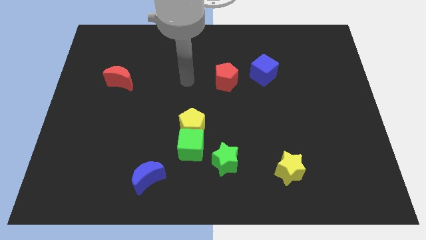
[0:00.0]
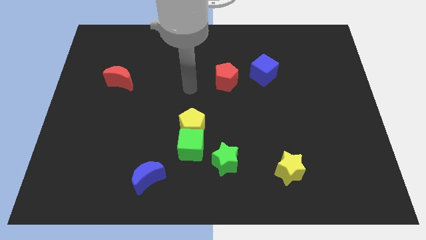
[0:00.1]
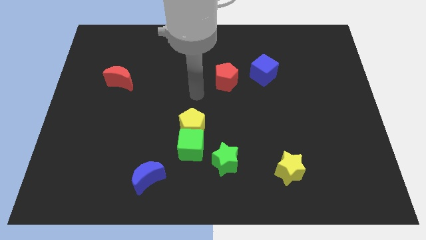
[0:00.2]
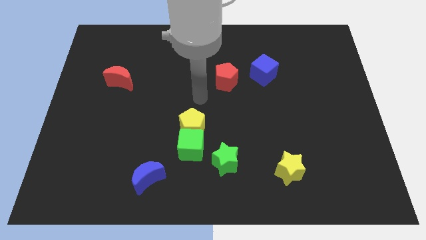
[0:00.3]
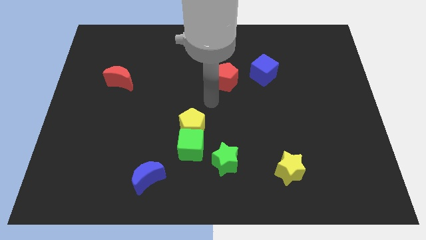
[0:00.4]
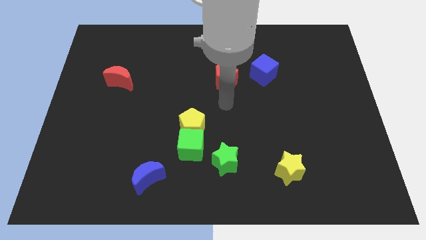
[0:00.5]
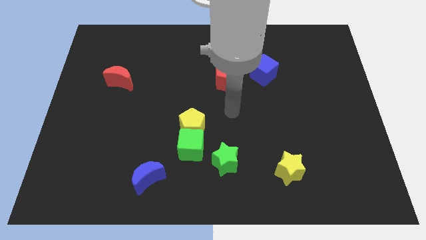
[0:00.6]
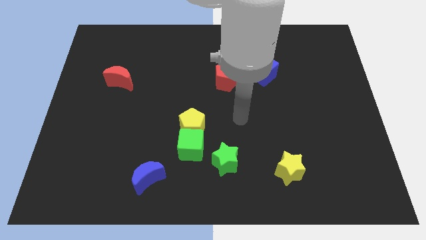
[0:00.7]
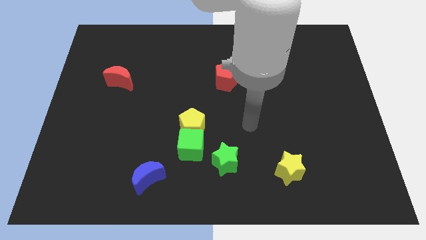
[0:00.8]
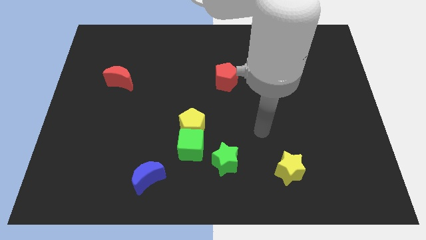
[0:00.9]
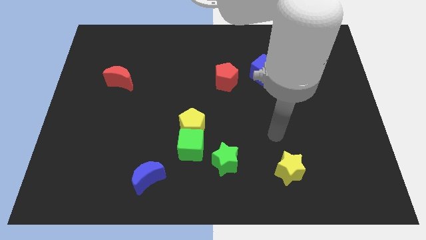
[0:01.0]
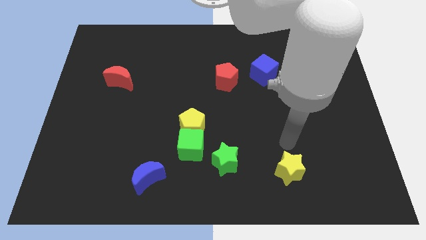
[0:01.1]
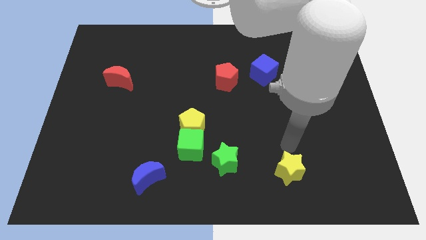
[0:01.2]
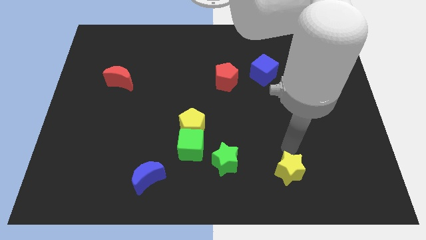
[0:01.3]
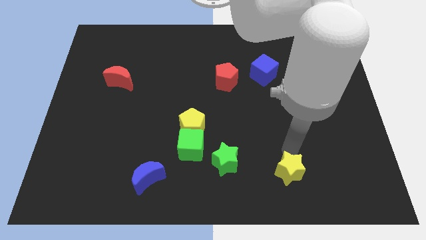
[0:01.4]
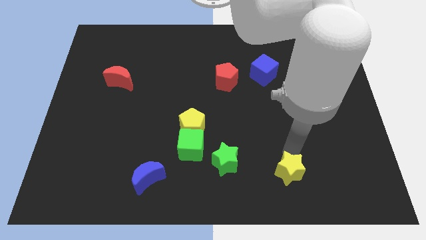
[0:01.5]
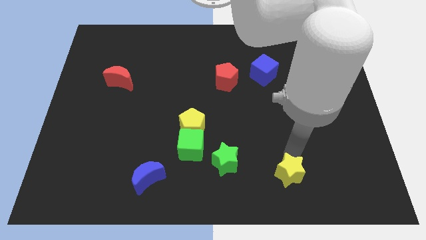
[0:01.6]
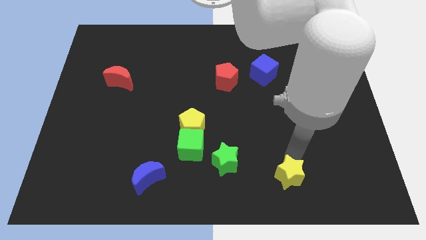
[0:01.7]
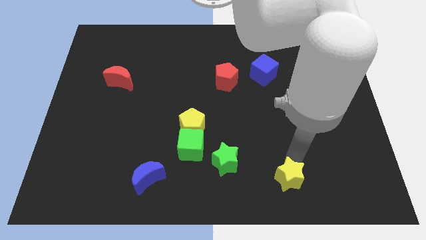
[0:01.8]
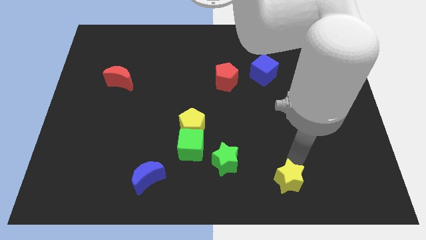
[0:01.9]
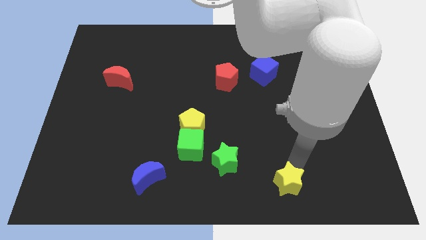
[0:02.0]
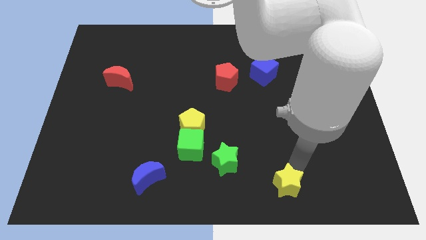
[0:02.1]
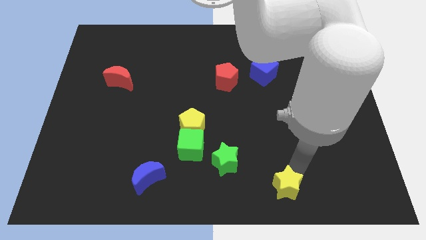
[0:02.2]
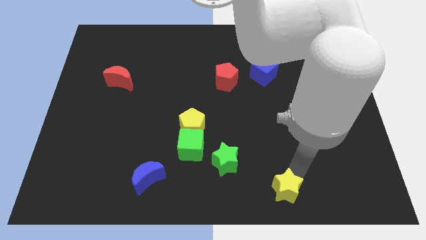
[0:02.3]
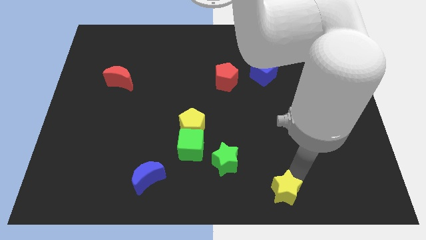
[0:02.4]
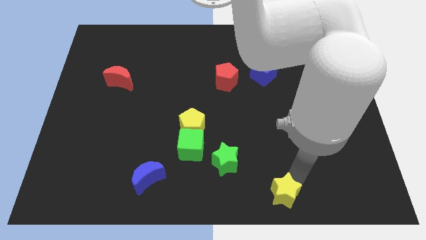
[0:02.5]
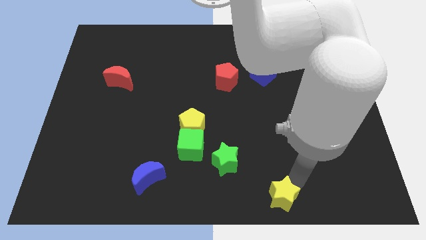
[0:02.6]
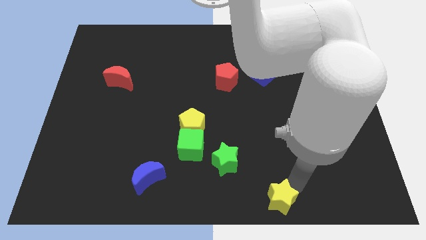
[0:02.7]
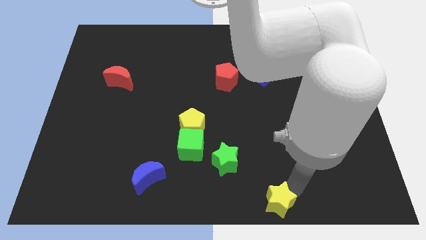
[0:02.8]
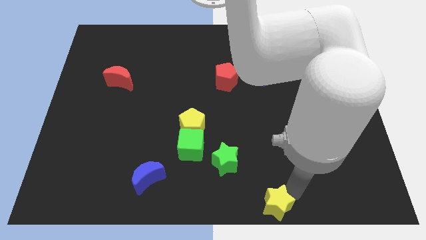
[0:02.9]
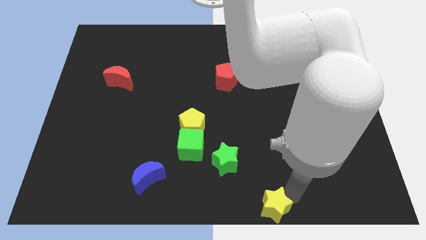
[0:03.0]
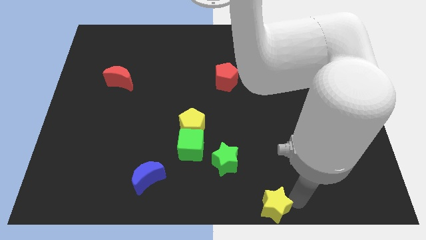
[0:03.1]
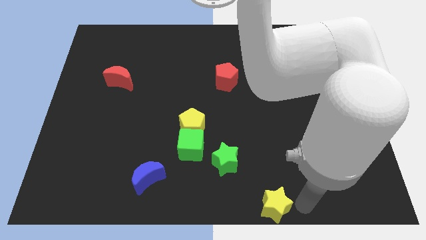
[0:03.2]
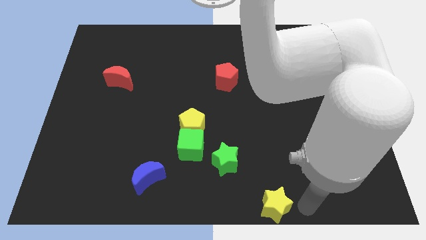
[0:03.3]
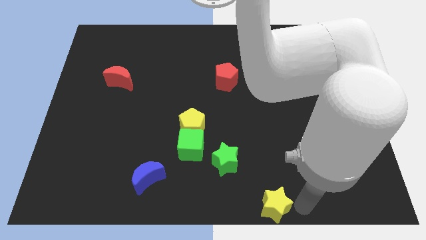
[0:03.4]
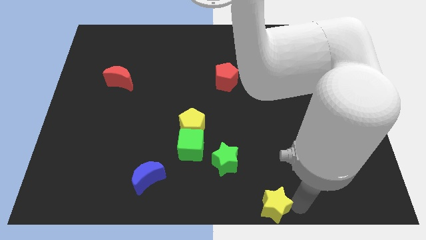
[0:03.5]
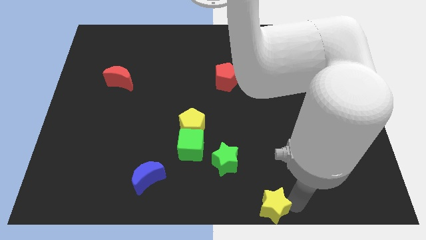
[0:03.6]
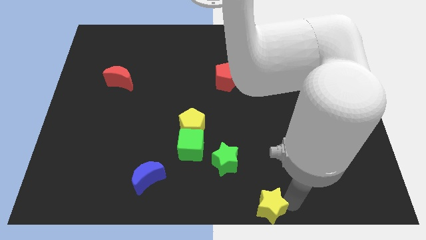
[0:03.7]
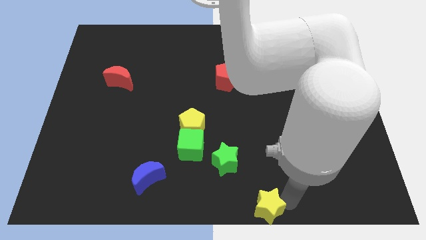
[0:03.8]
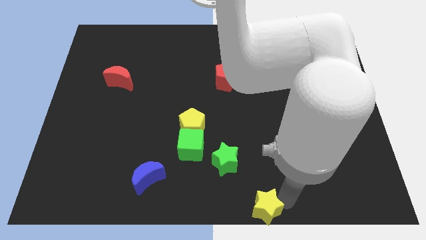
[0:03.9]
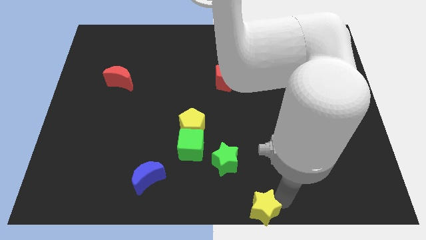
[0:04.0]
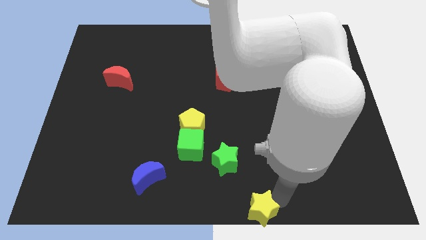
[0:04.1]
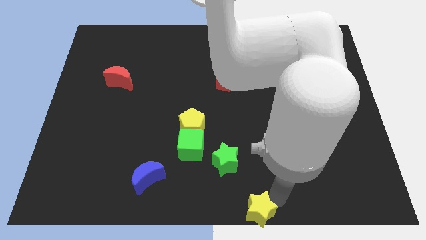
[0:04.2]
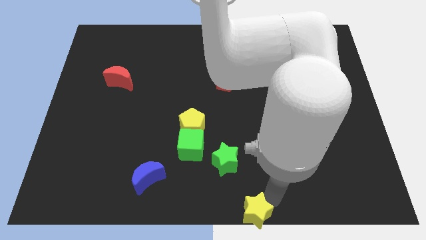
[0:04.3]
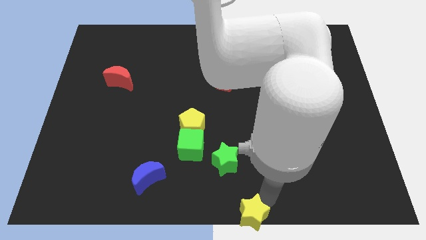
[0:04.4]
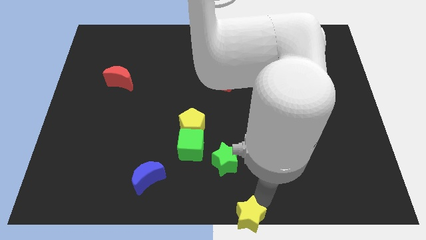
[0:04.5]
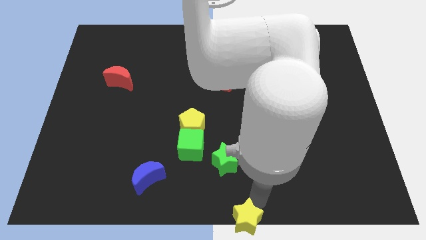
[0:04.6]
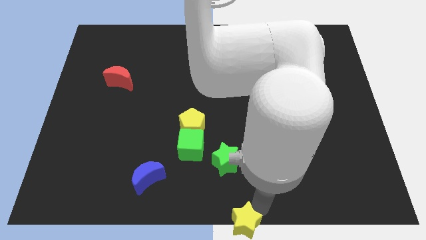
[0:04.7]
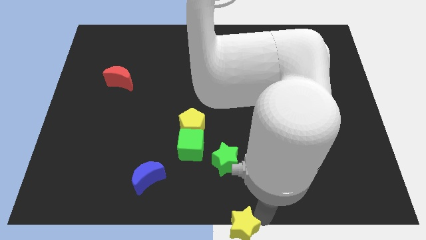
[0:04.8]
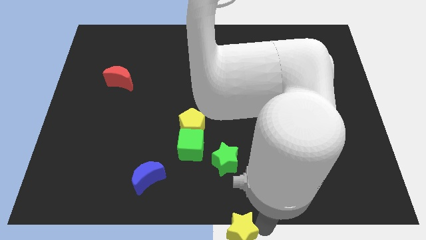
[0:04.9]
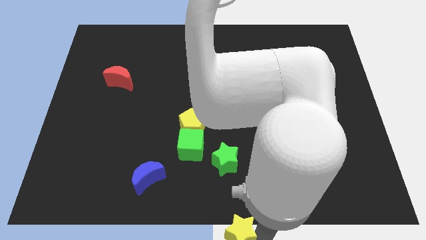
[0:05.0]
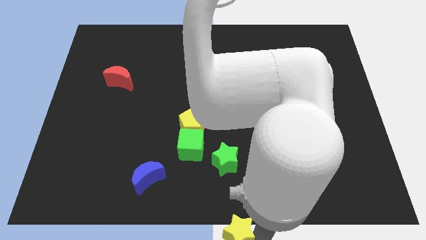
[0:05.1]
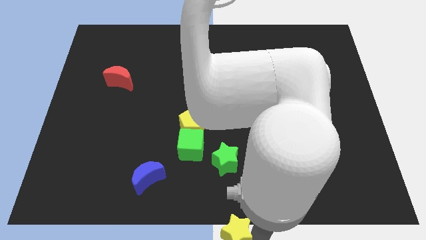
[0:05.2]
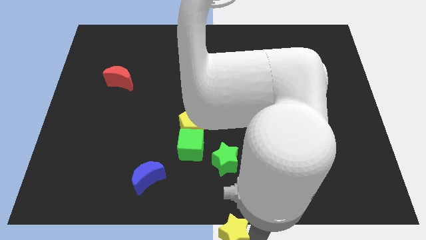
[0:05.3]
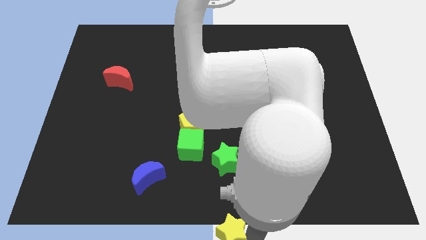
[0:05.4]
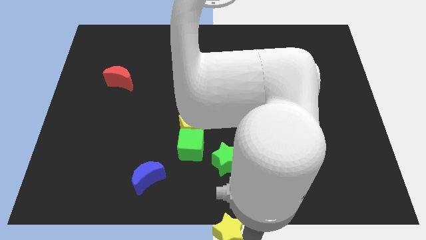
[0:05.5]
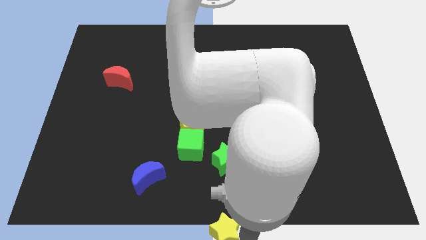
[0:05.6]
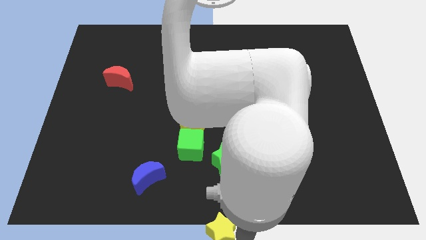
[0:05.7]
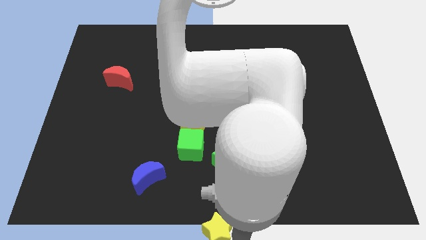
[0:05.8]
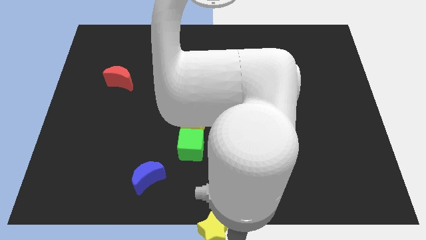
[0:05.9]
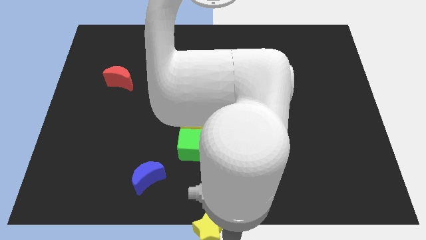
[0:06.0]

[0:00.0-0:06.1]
slide the yellow star a little to the left

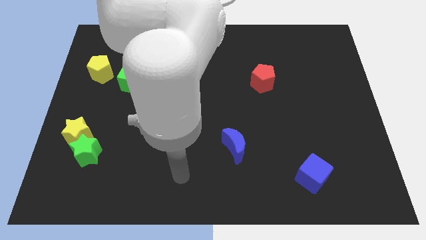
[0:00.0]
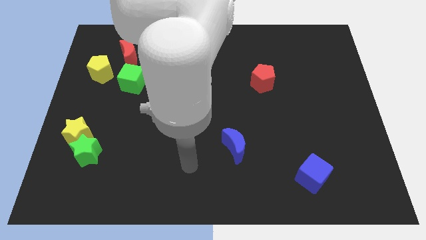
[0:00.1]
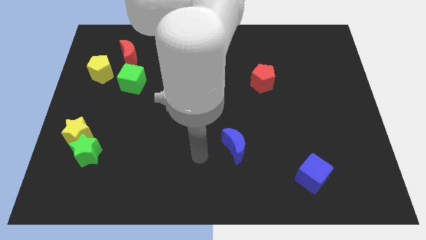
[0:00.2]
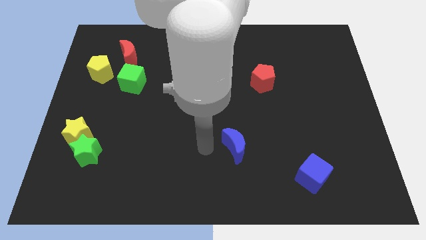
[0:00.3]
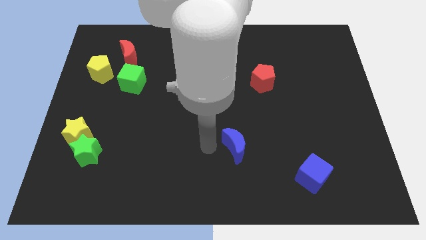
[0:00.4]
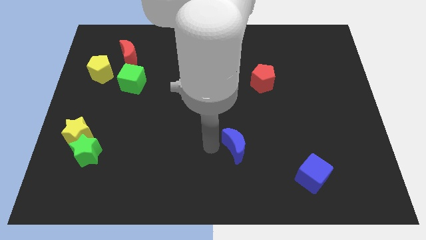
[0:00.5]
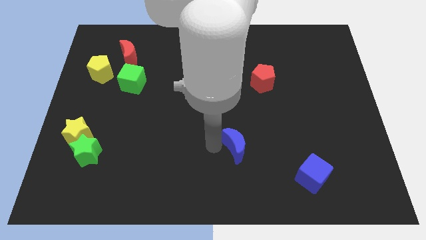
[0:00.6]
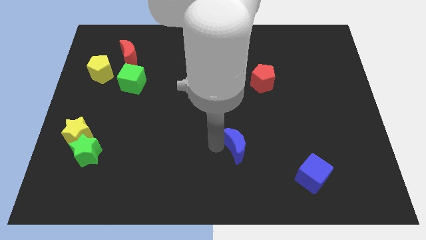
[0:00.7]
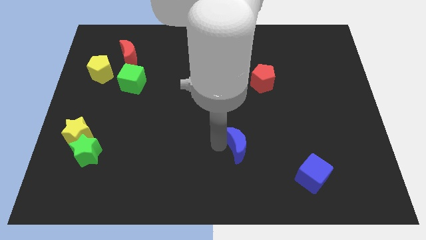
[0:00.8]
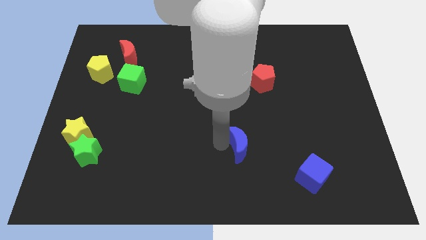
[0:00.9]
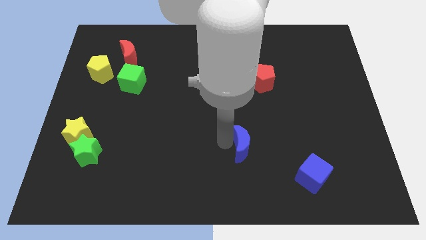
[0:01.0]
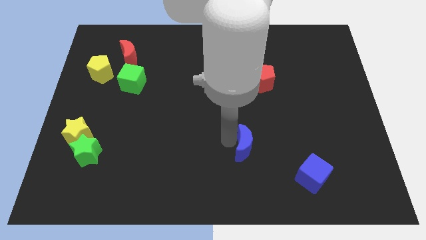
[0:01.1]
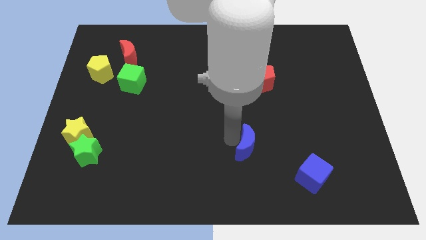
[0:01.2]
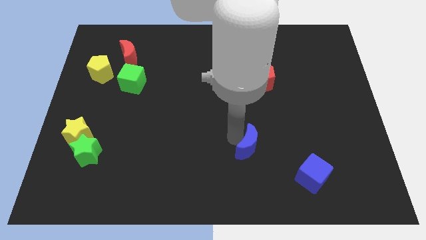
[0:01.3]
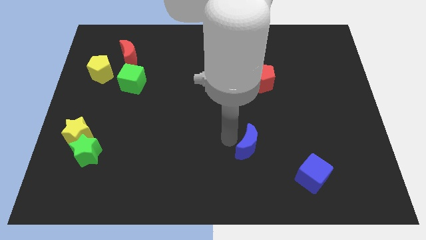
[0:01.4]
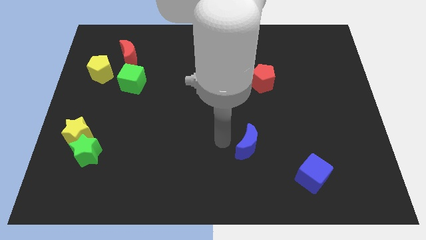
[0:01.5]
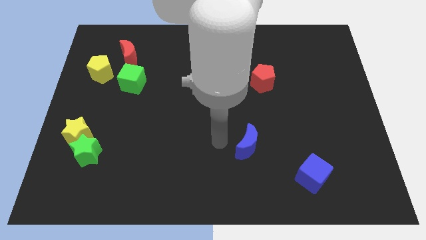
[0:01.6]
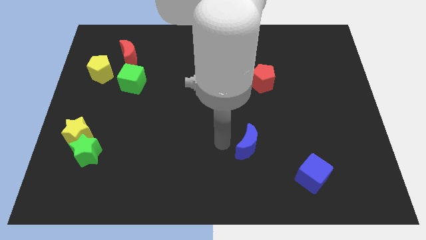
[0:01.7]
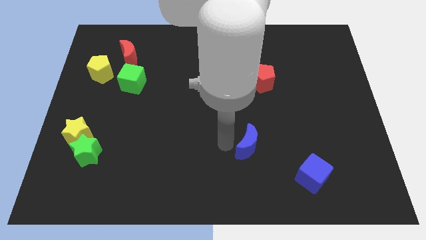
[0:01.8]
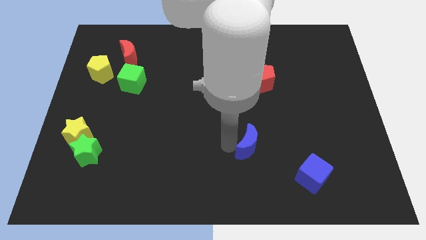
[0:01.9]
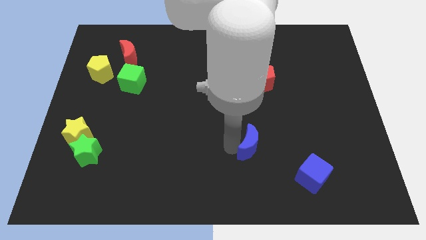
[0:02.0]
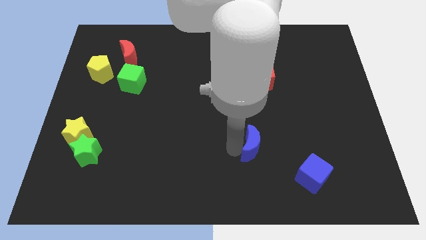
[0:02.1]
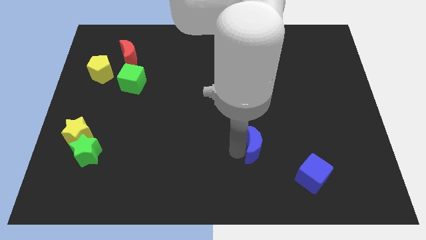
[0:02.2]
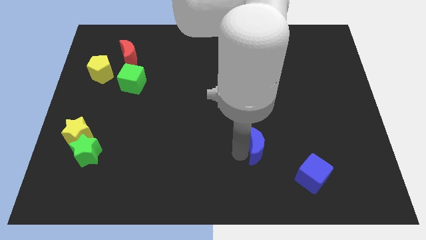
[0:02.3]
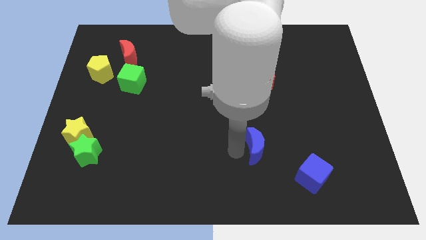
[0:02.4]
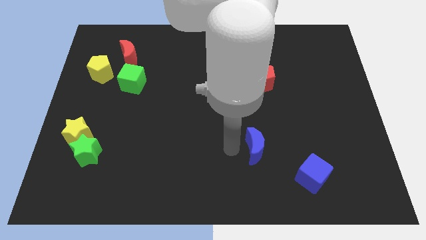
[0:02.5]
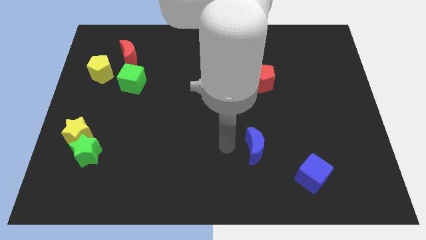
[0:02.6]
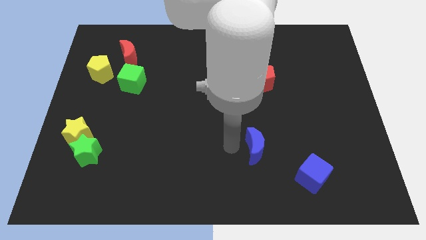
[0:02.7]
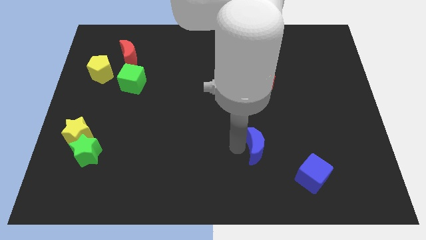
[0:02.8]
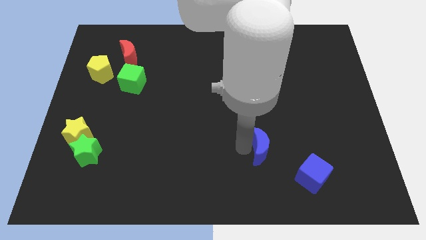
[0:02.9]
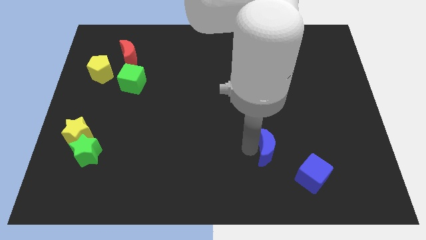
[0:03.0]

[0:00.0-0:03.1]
push the blue moon a little to the right
